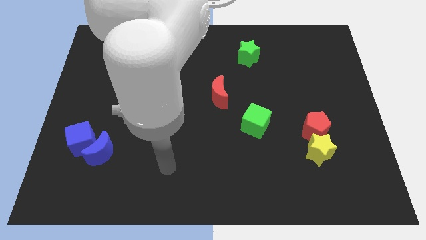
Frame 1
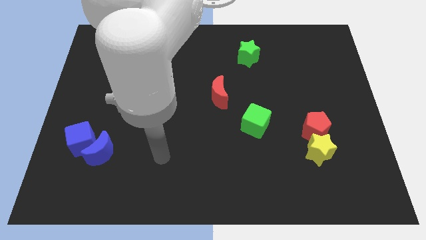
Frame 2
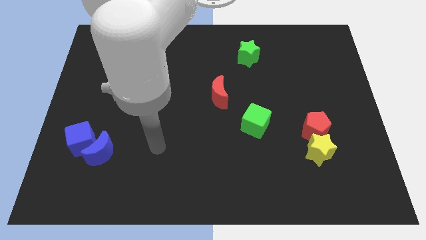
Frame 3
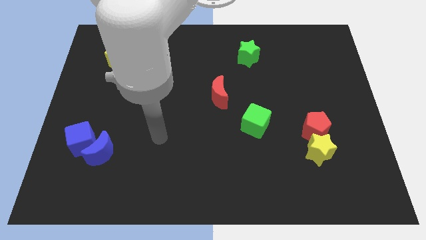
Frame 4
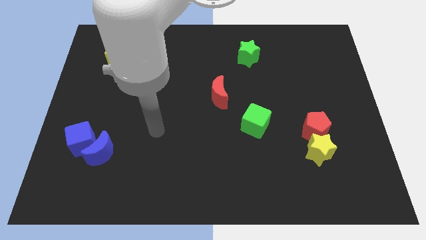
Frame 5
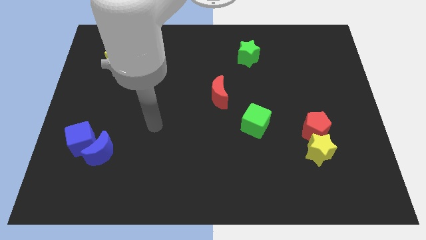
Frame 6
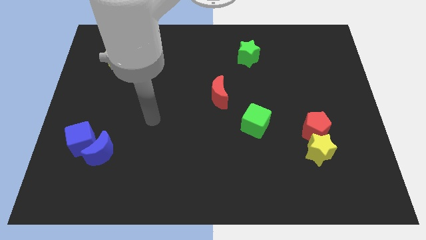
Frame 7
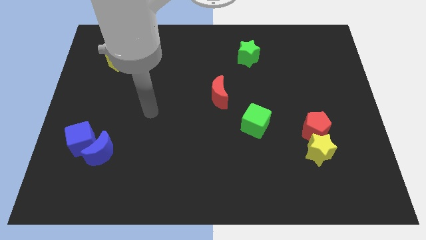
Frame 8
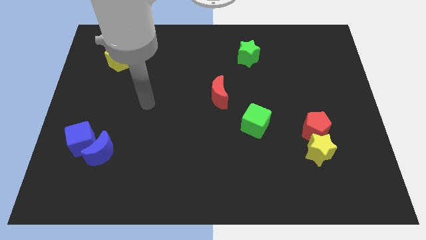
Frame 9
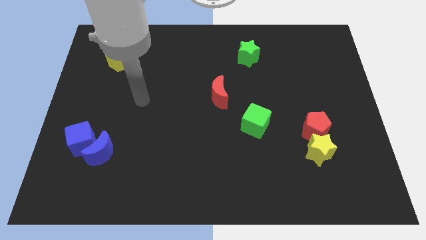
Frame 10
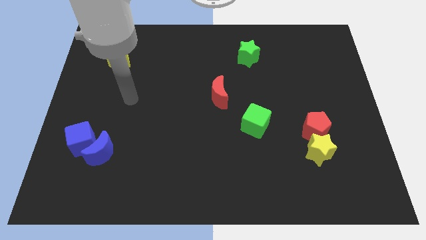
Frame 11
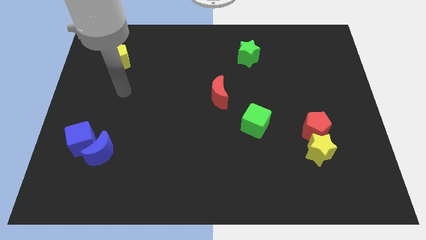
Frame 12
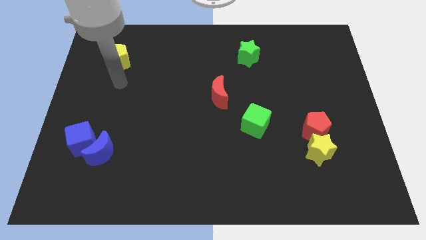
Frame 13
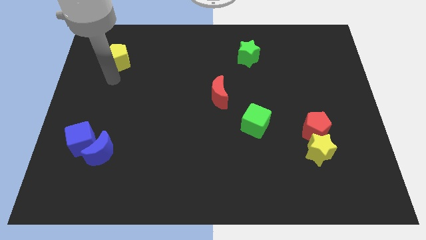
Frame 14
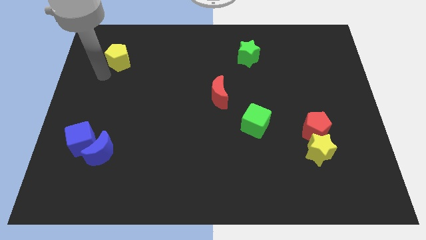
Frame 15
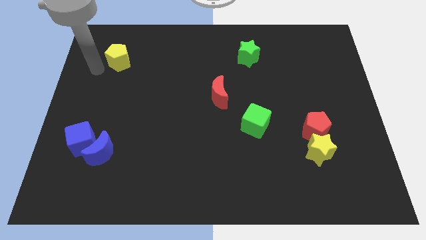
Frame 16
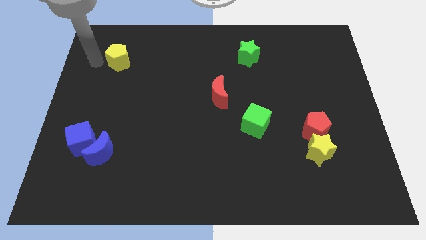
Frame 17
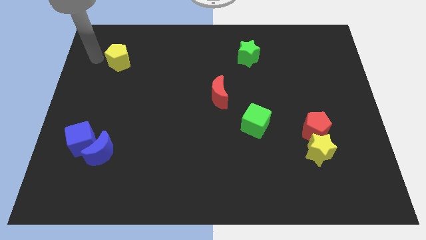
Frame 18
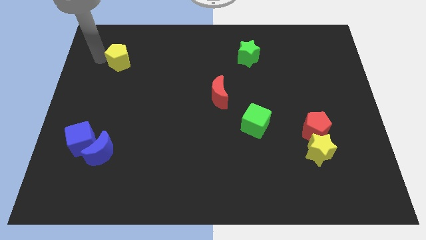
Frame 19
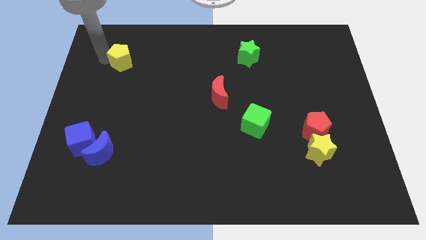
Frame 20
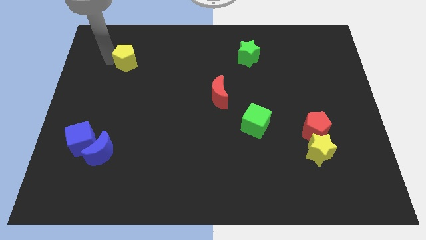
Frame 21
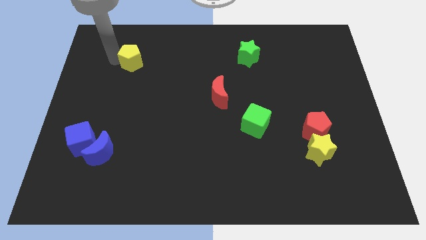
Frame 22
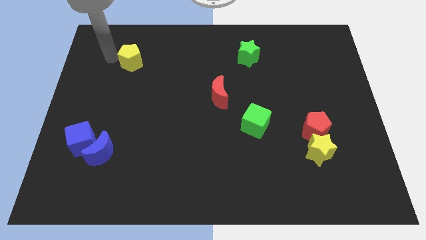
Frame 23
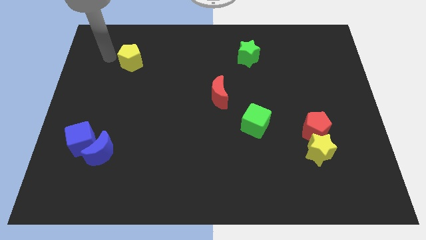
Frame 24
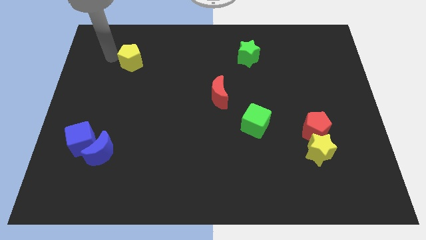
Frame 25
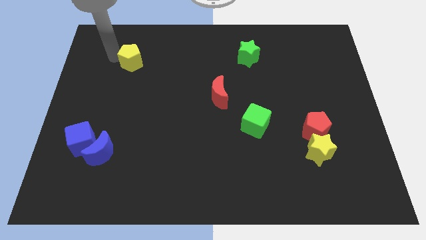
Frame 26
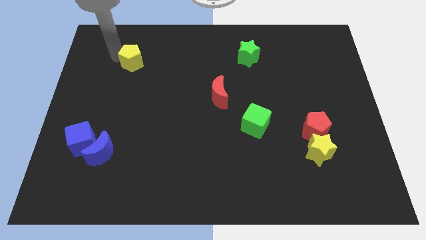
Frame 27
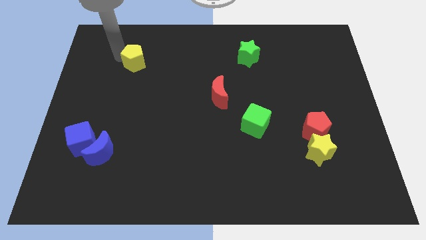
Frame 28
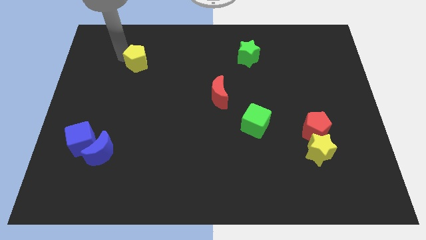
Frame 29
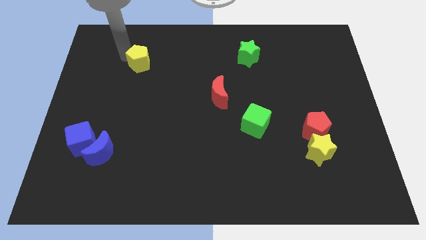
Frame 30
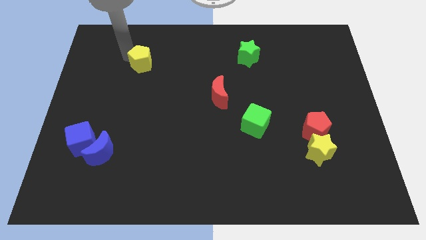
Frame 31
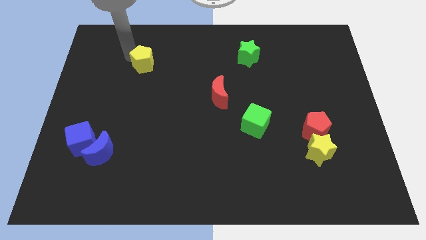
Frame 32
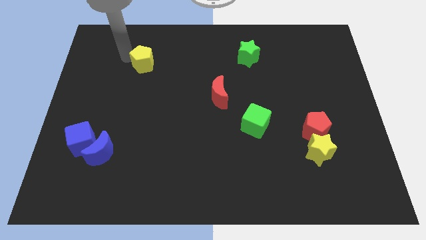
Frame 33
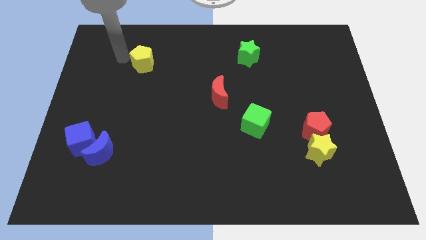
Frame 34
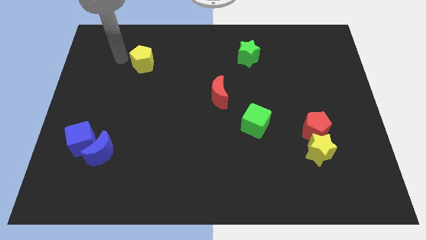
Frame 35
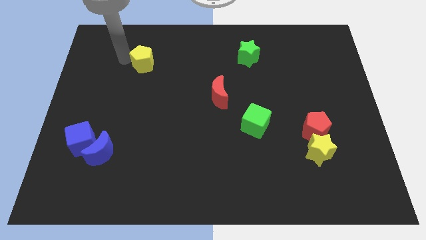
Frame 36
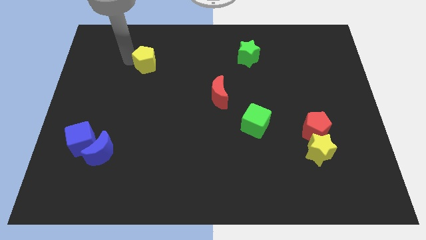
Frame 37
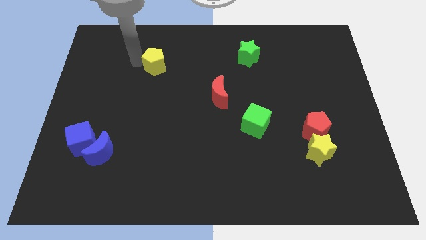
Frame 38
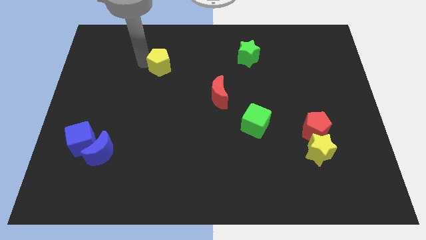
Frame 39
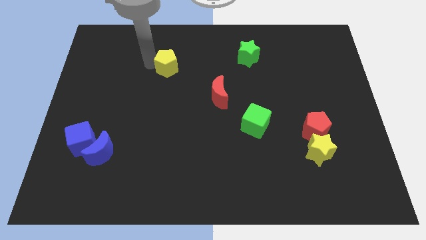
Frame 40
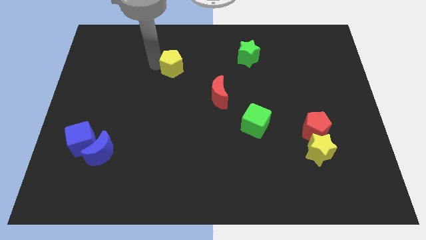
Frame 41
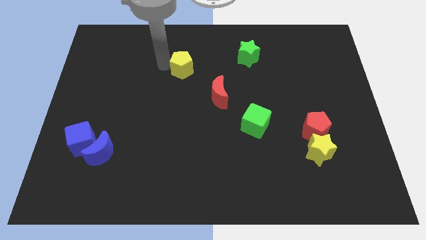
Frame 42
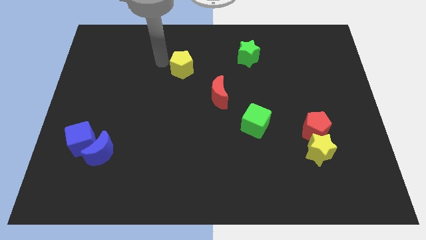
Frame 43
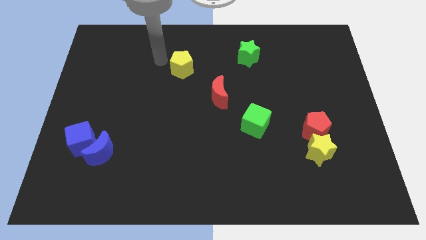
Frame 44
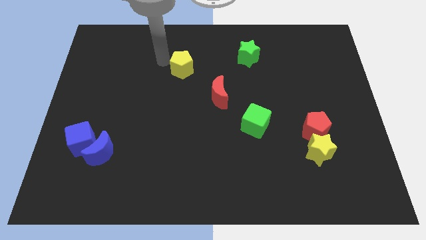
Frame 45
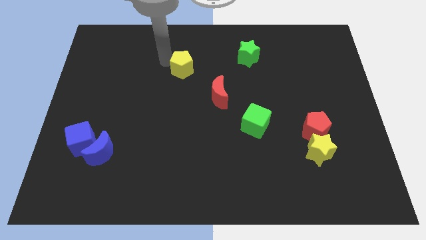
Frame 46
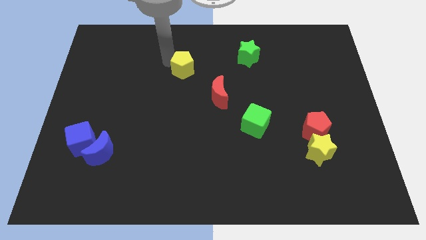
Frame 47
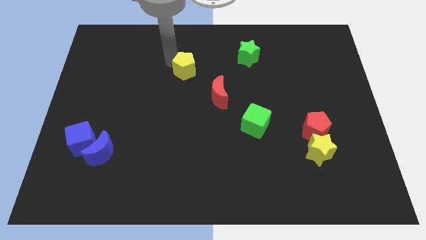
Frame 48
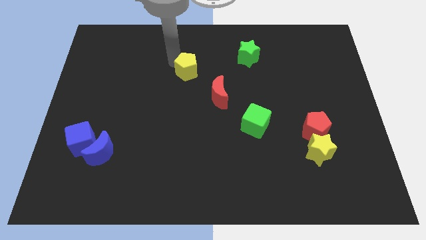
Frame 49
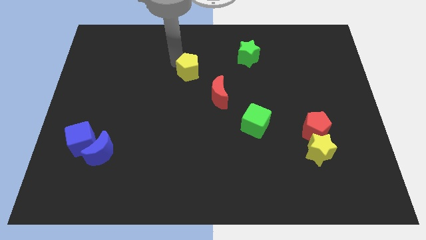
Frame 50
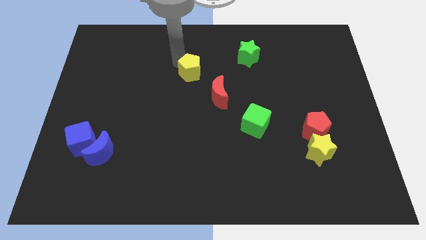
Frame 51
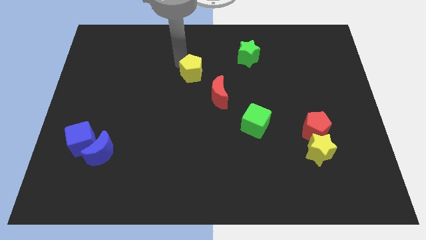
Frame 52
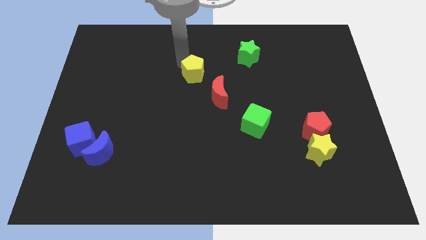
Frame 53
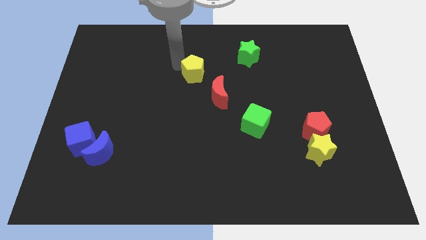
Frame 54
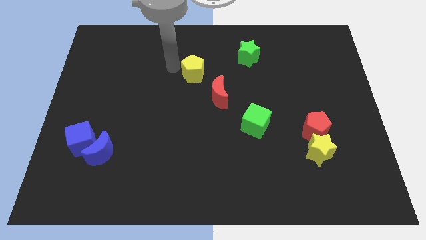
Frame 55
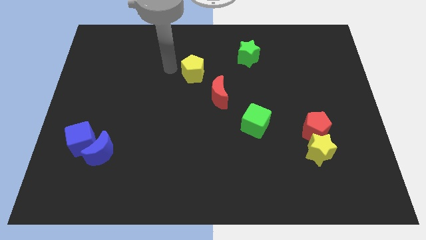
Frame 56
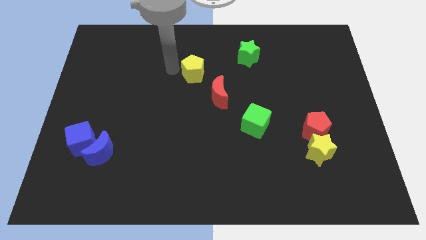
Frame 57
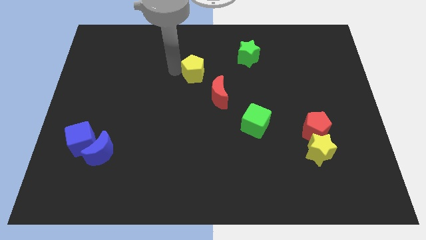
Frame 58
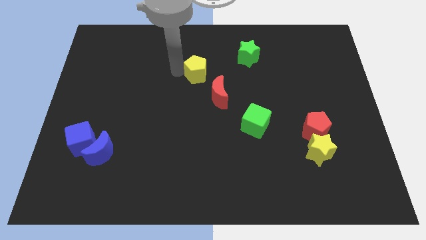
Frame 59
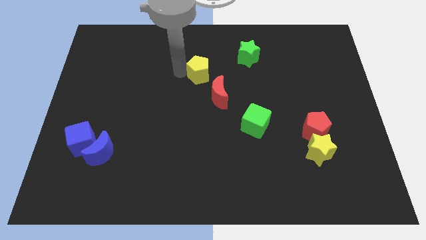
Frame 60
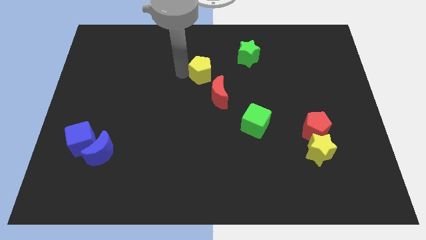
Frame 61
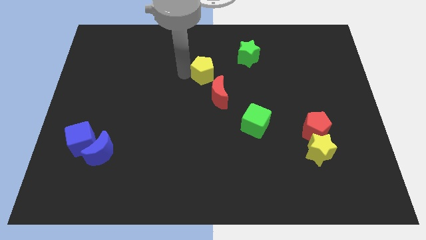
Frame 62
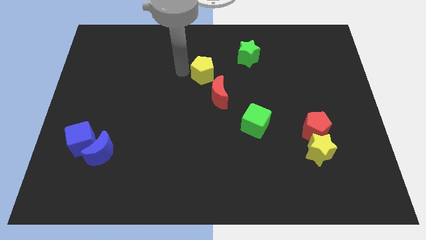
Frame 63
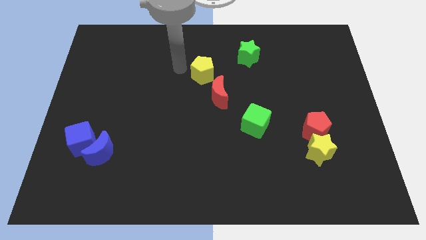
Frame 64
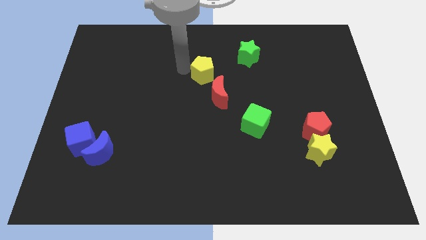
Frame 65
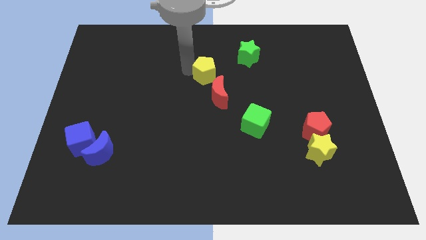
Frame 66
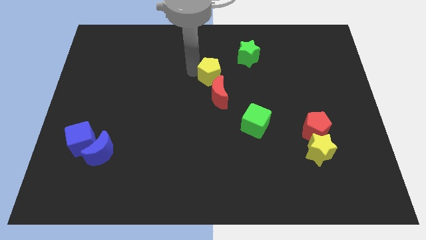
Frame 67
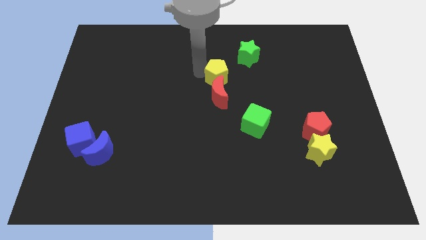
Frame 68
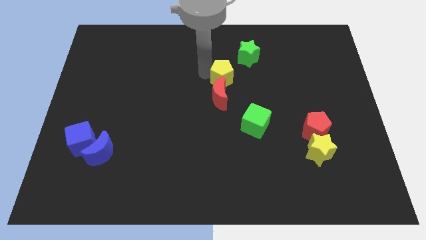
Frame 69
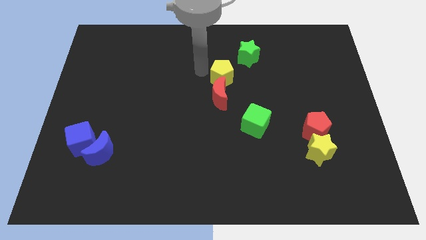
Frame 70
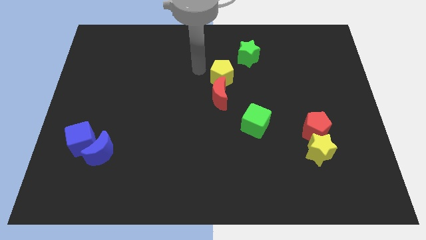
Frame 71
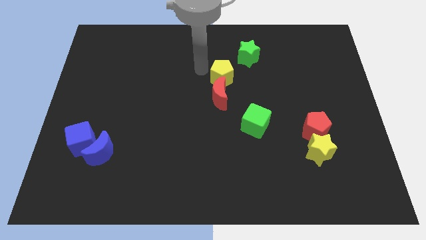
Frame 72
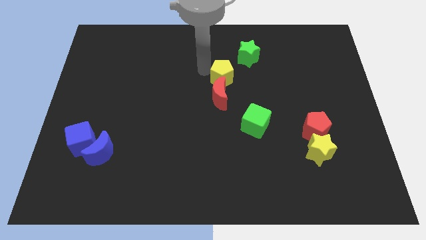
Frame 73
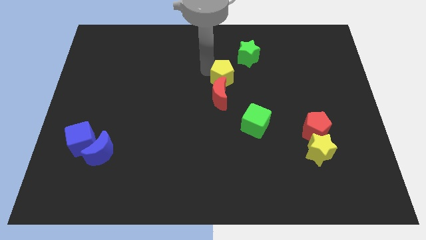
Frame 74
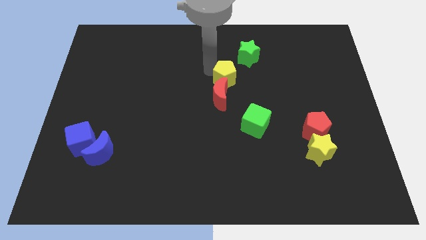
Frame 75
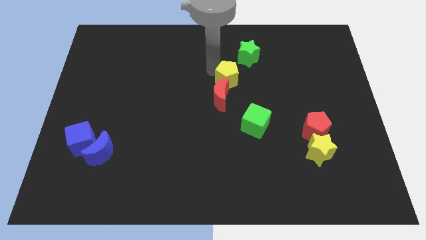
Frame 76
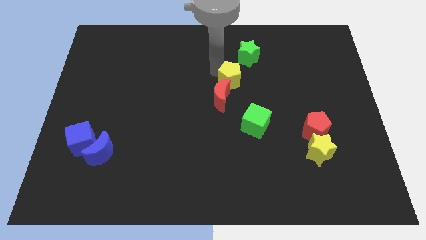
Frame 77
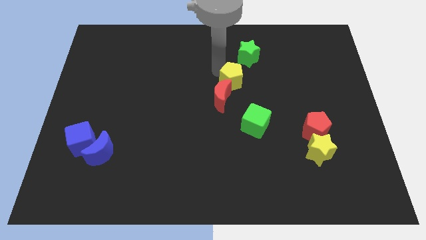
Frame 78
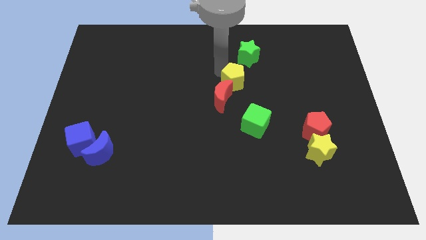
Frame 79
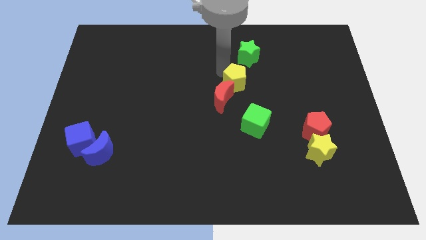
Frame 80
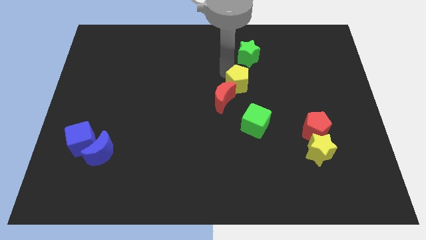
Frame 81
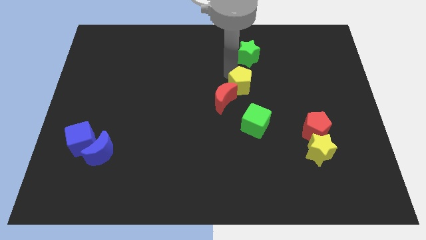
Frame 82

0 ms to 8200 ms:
slide the yellow pentagon to the right side of the red moon
